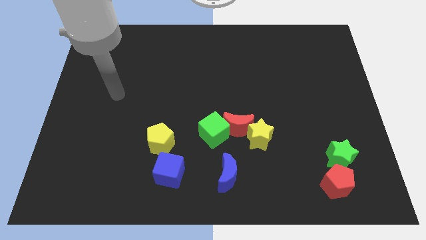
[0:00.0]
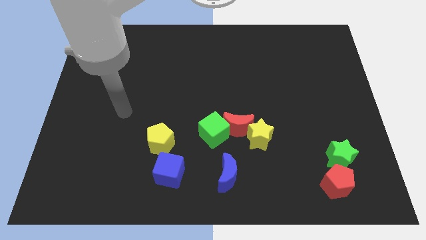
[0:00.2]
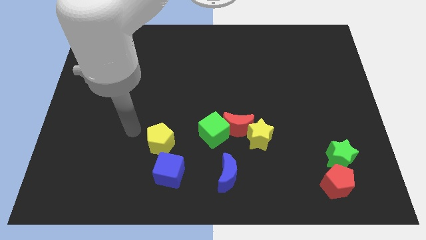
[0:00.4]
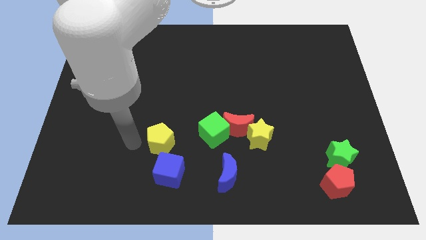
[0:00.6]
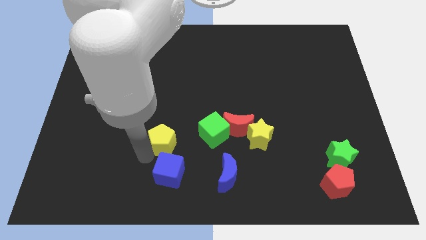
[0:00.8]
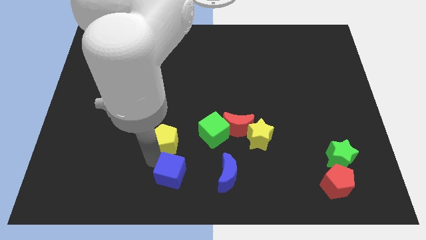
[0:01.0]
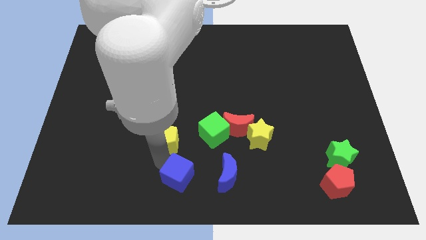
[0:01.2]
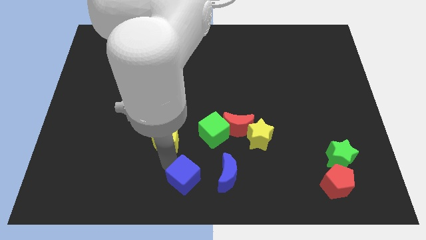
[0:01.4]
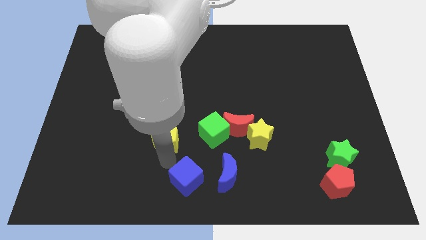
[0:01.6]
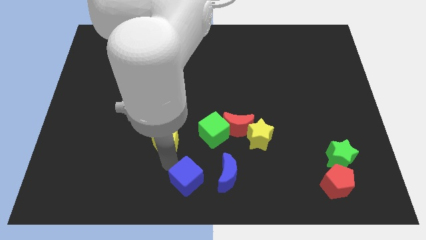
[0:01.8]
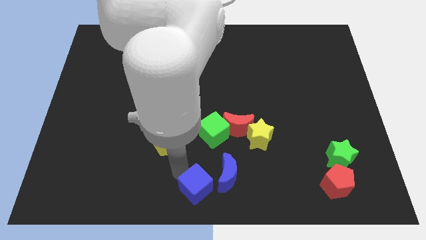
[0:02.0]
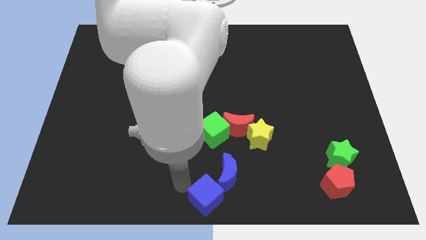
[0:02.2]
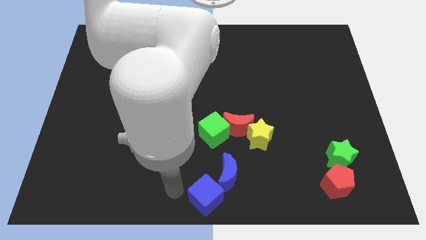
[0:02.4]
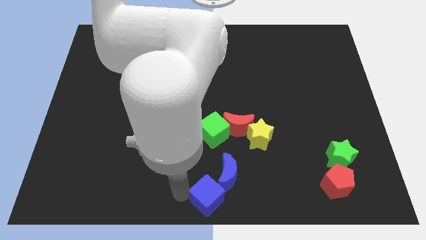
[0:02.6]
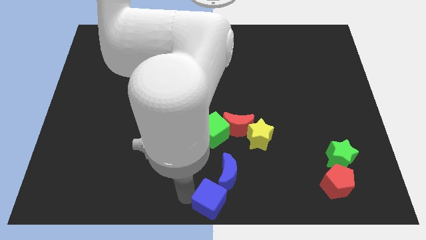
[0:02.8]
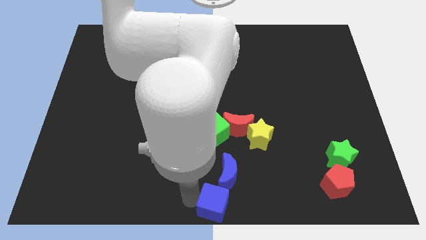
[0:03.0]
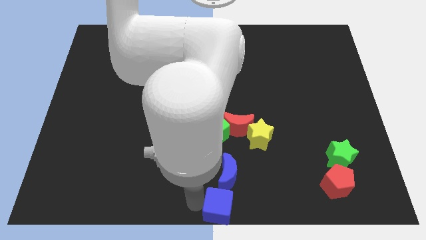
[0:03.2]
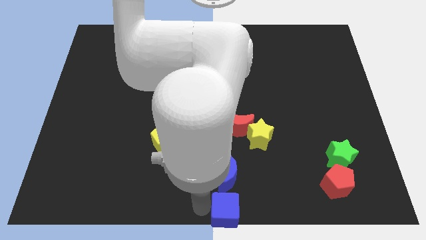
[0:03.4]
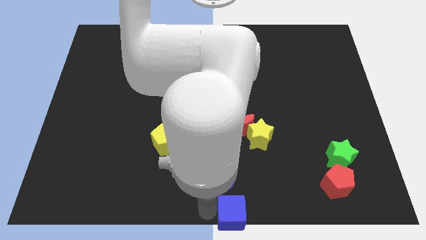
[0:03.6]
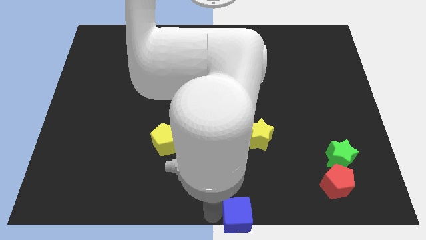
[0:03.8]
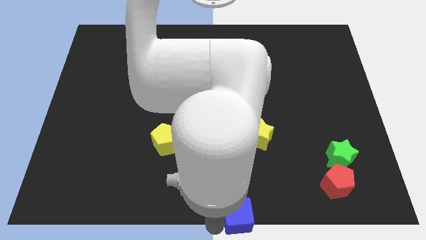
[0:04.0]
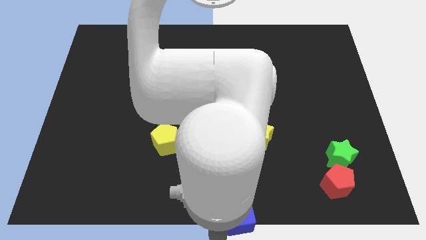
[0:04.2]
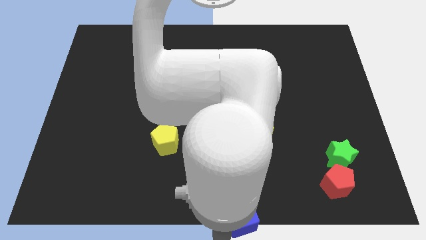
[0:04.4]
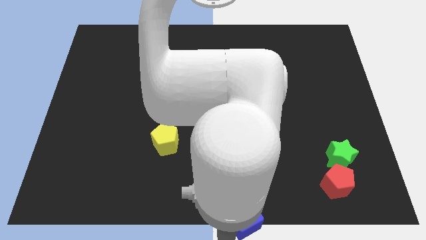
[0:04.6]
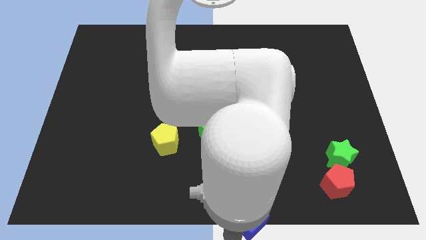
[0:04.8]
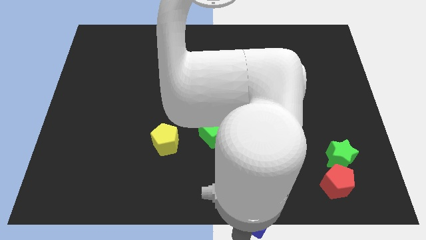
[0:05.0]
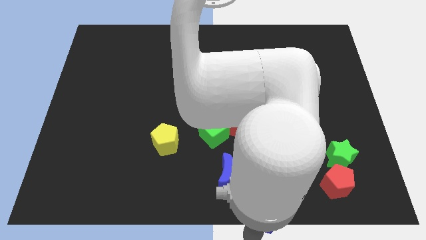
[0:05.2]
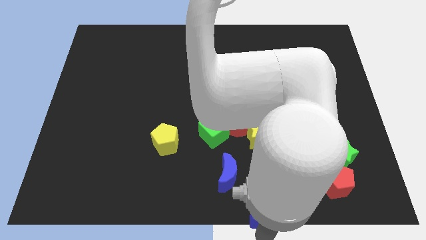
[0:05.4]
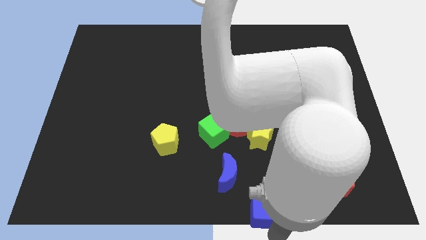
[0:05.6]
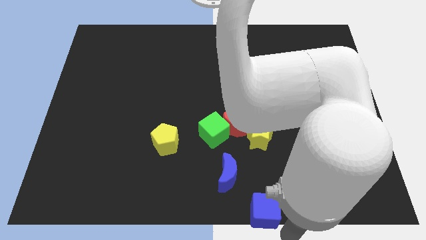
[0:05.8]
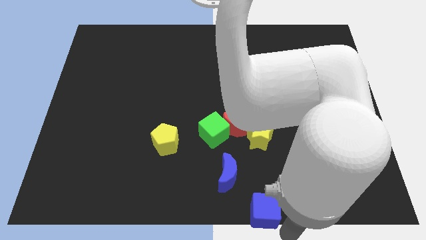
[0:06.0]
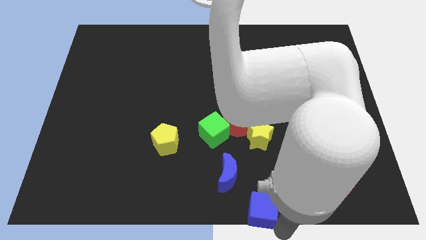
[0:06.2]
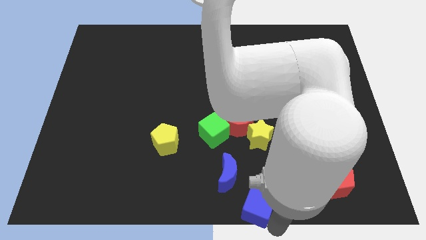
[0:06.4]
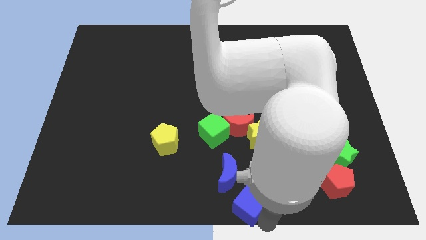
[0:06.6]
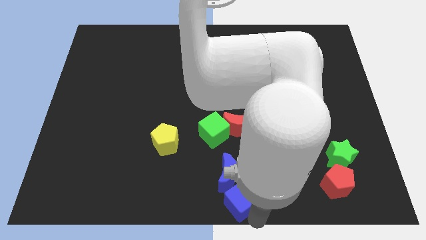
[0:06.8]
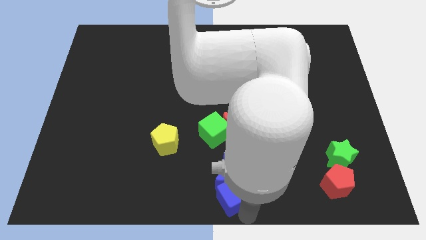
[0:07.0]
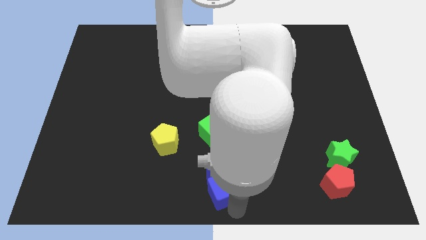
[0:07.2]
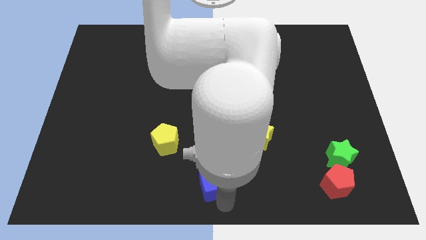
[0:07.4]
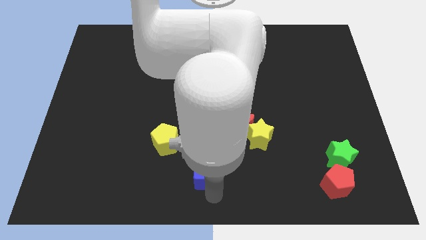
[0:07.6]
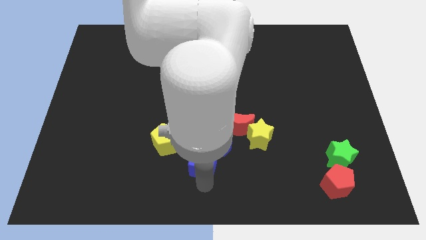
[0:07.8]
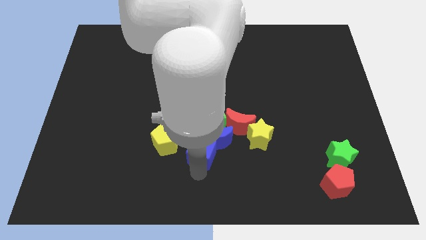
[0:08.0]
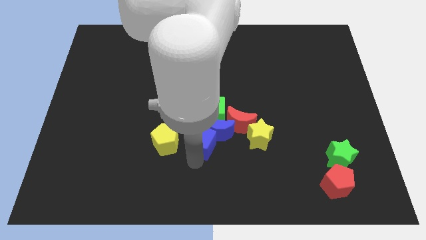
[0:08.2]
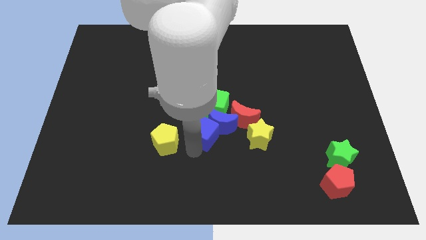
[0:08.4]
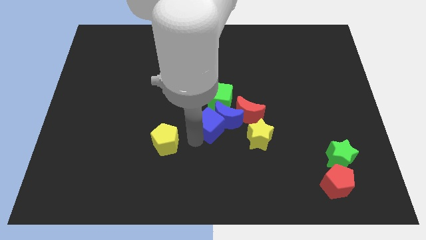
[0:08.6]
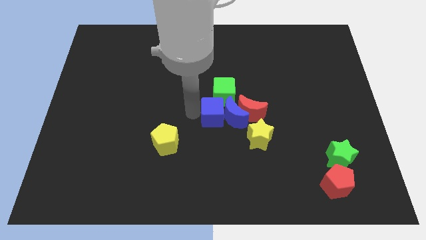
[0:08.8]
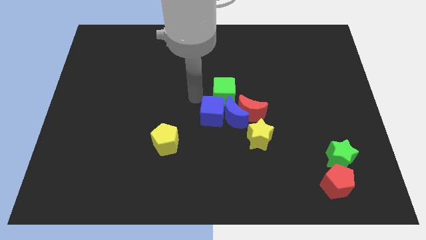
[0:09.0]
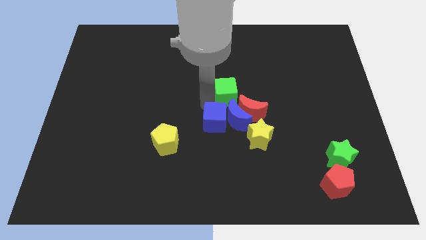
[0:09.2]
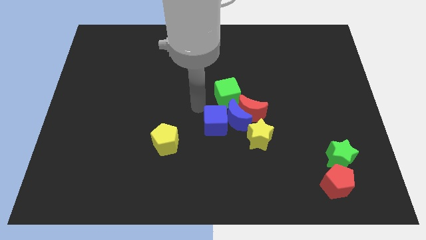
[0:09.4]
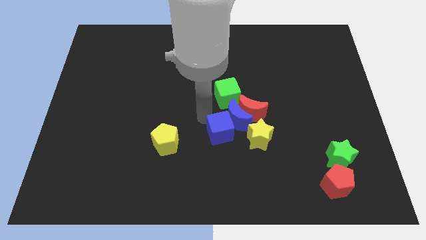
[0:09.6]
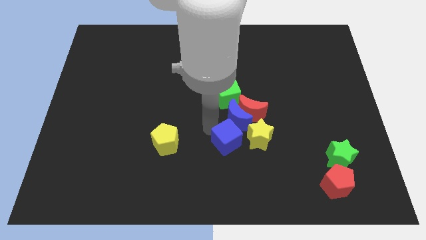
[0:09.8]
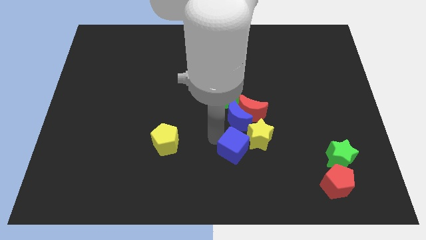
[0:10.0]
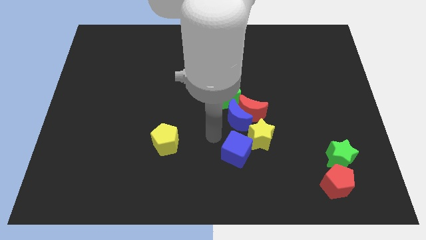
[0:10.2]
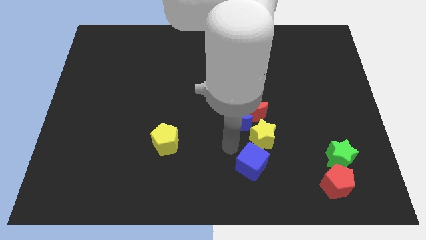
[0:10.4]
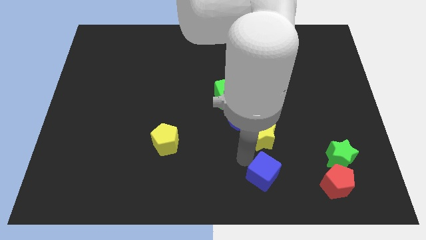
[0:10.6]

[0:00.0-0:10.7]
slide the blue cube left of the red pentagon

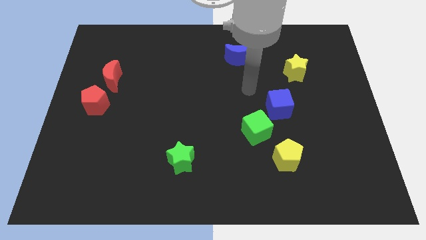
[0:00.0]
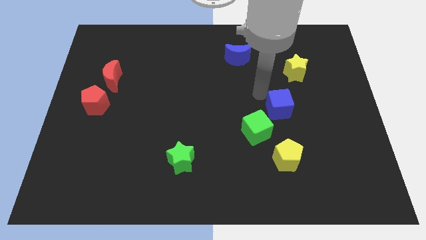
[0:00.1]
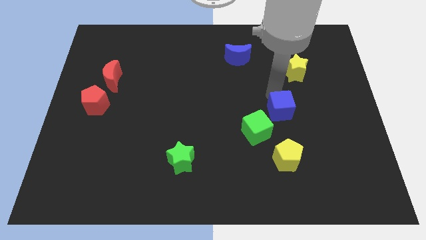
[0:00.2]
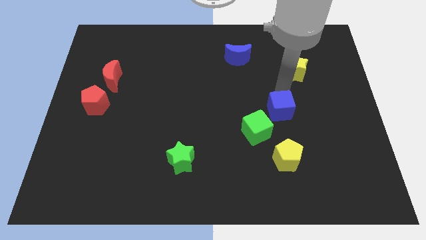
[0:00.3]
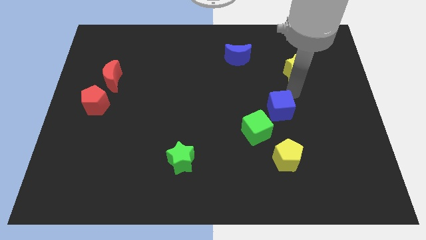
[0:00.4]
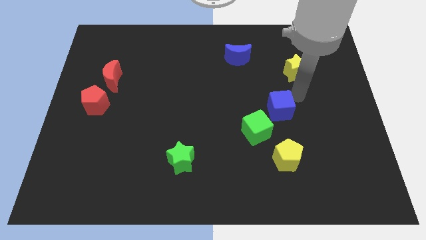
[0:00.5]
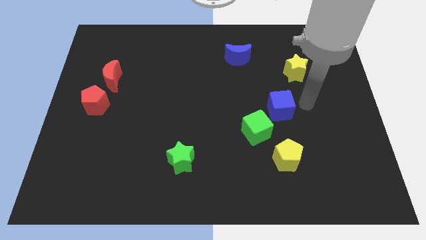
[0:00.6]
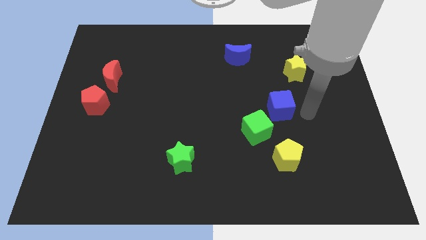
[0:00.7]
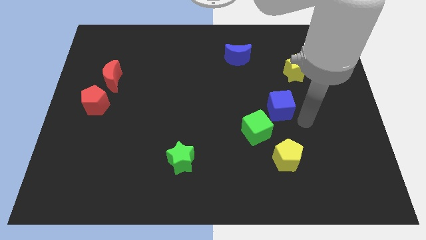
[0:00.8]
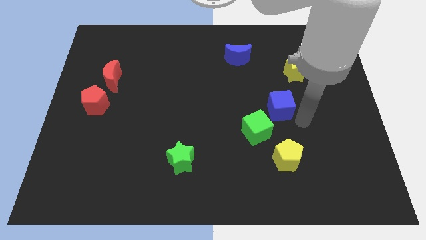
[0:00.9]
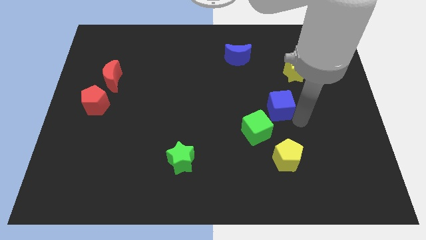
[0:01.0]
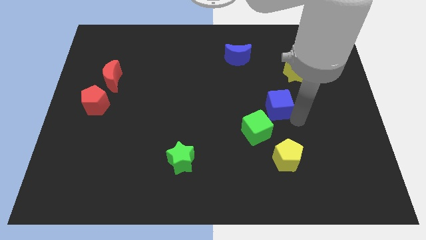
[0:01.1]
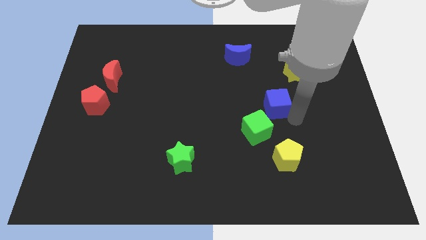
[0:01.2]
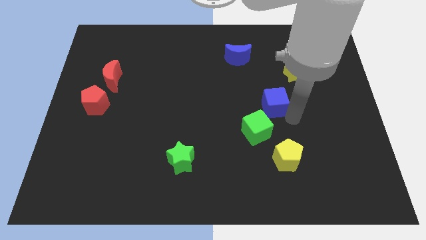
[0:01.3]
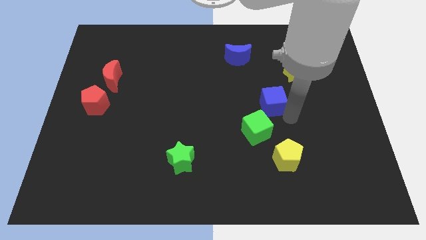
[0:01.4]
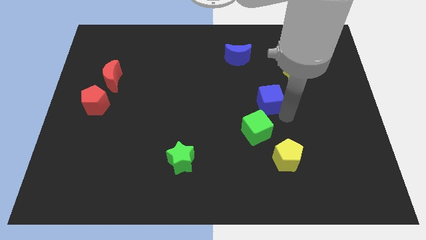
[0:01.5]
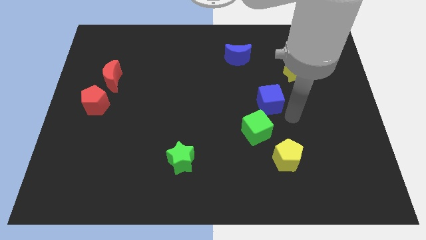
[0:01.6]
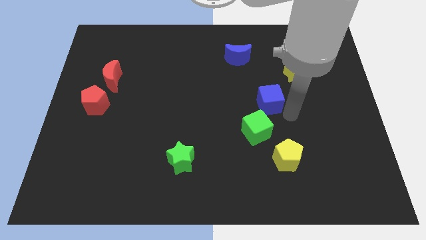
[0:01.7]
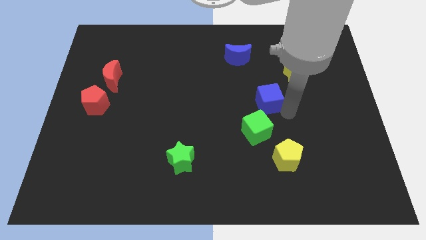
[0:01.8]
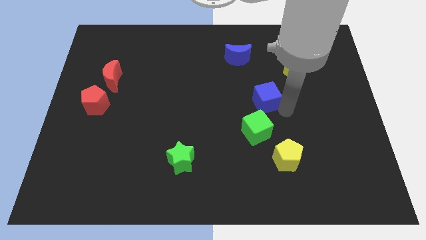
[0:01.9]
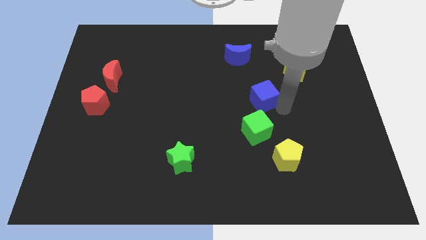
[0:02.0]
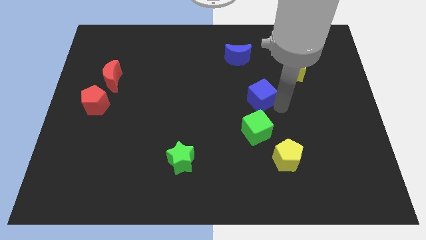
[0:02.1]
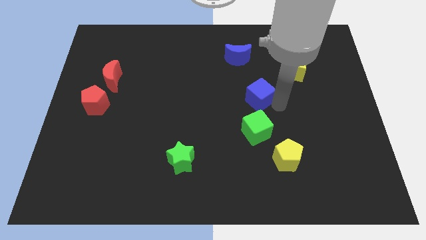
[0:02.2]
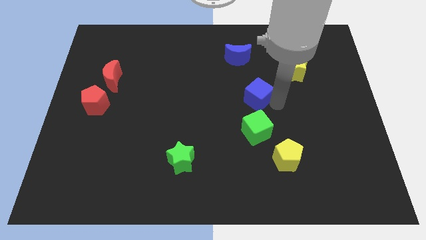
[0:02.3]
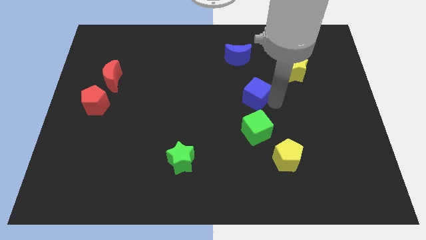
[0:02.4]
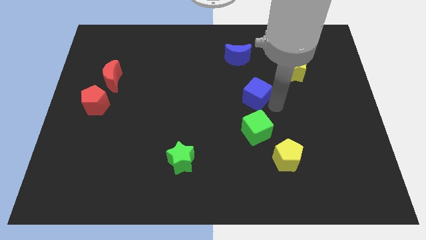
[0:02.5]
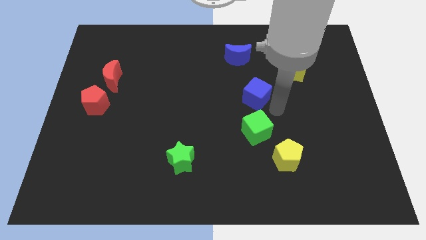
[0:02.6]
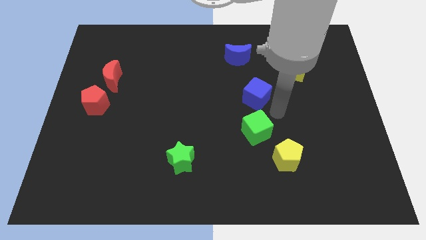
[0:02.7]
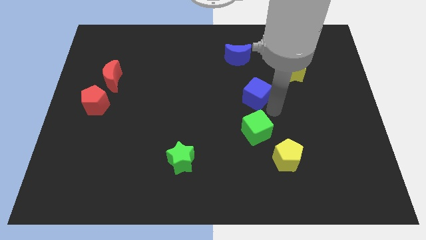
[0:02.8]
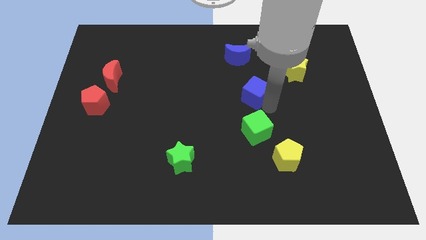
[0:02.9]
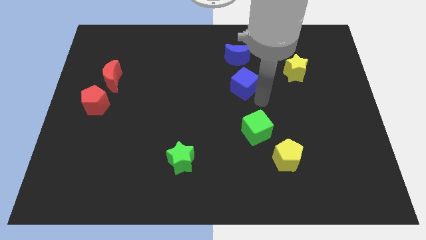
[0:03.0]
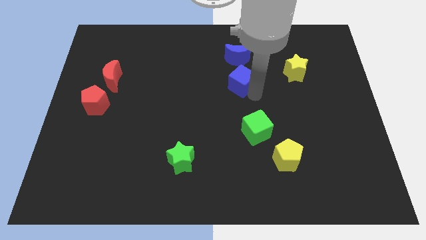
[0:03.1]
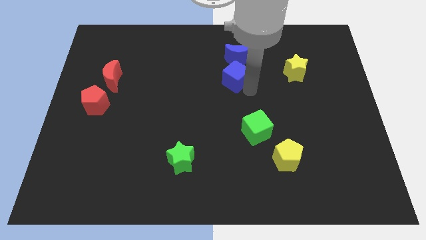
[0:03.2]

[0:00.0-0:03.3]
move the blue cube diagonally down and to the left of the blue moon
